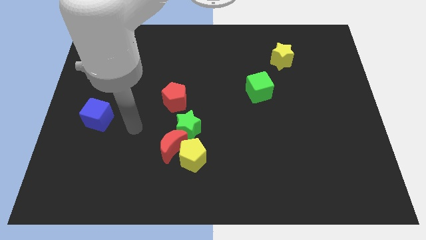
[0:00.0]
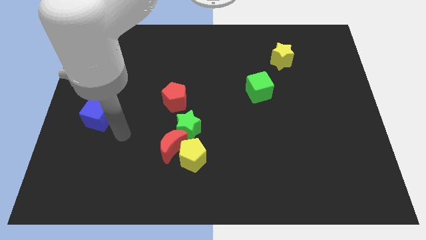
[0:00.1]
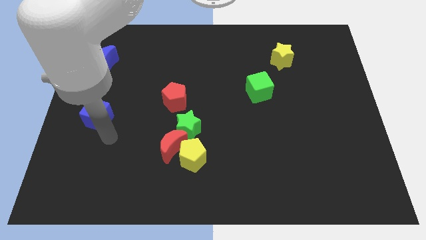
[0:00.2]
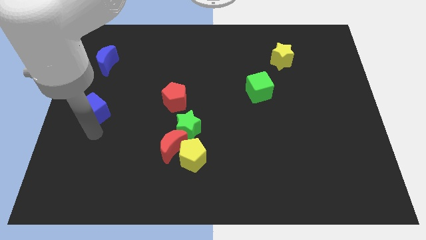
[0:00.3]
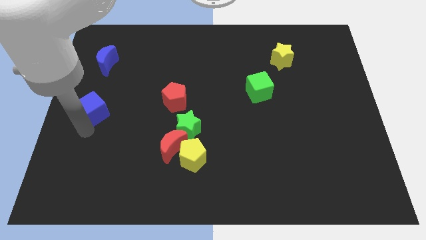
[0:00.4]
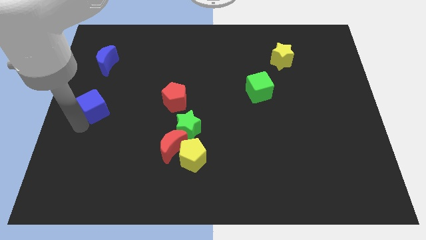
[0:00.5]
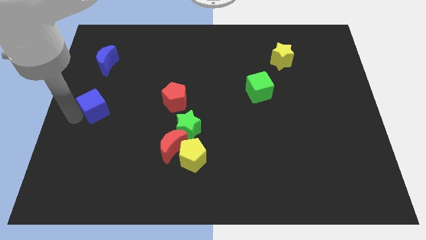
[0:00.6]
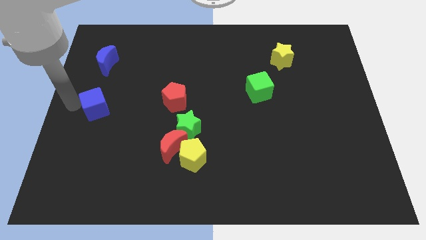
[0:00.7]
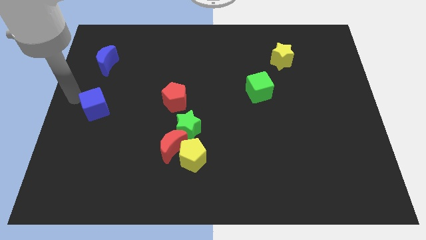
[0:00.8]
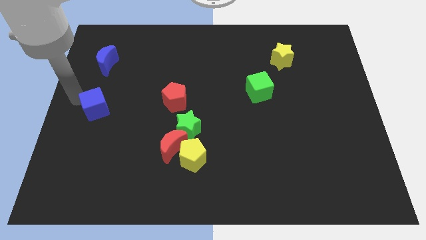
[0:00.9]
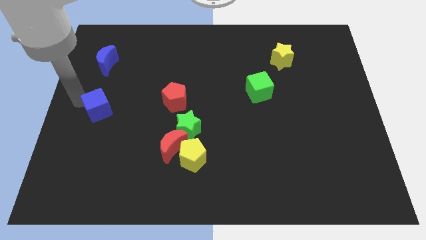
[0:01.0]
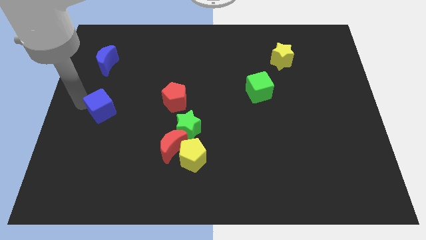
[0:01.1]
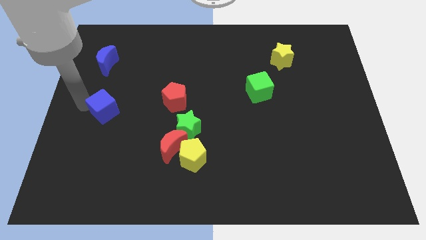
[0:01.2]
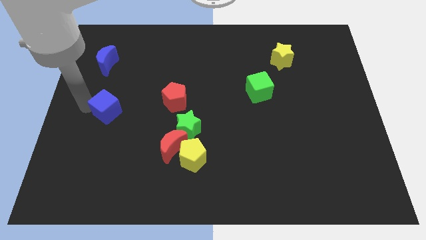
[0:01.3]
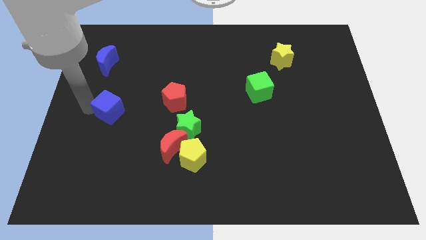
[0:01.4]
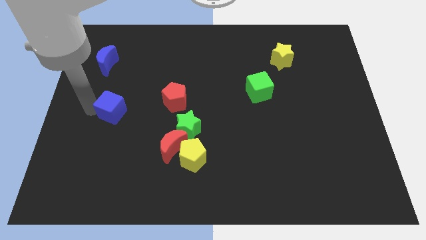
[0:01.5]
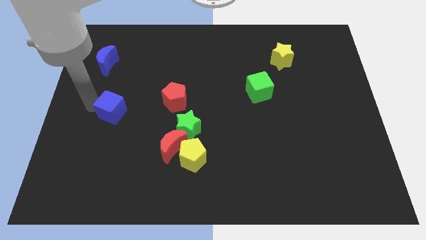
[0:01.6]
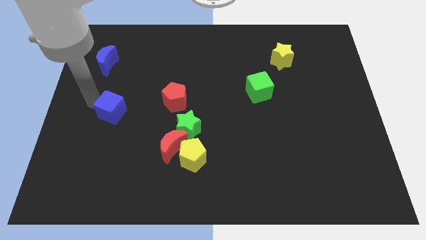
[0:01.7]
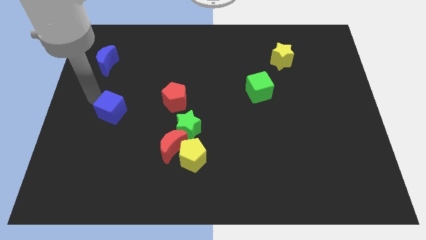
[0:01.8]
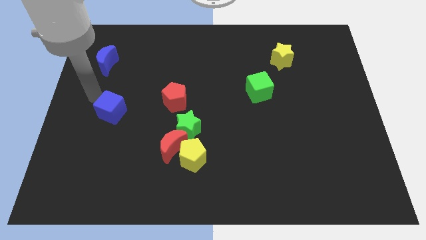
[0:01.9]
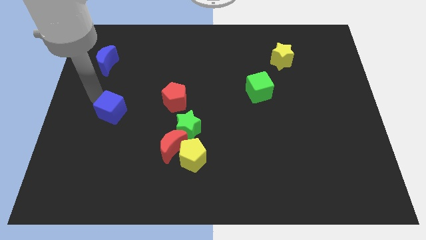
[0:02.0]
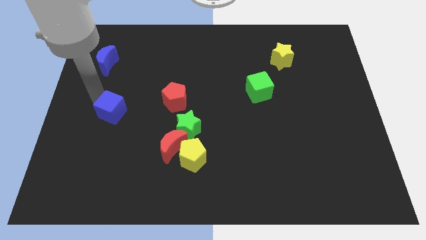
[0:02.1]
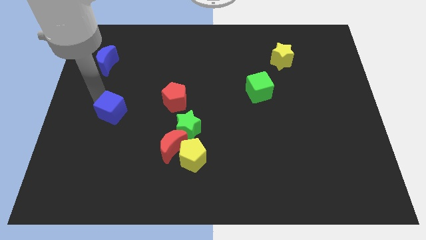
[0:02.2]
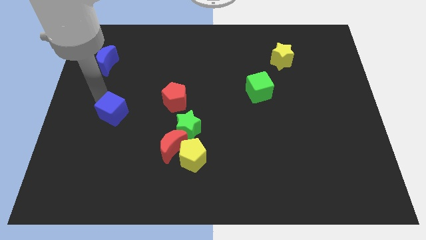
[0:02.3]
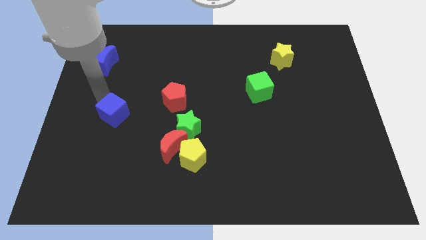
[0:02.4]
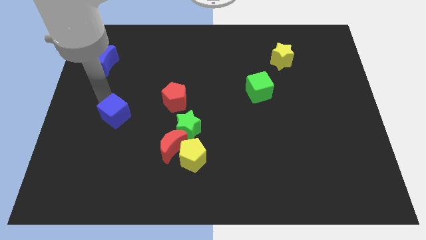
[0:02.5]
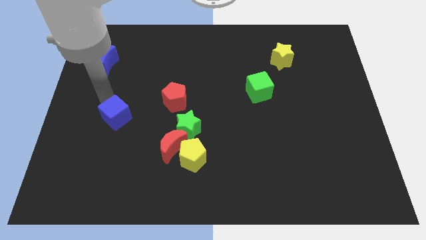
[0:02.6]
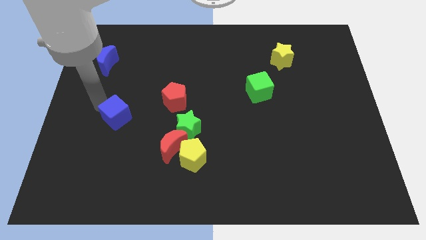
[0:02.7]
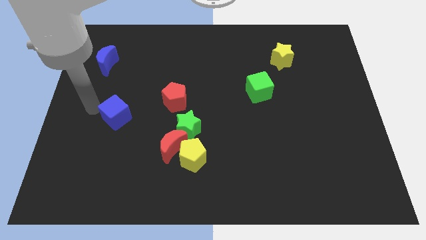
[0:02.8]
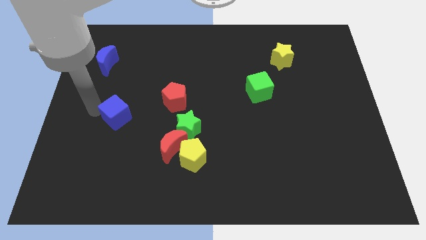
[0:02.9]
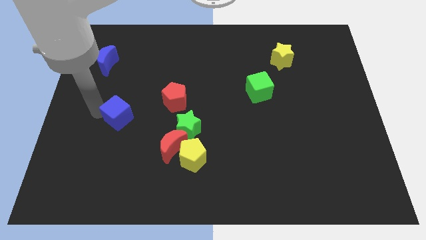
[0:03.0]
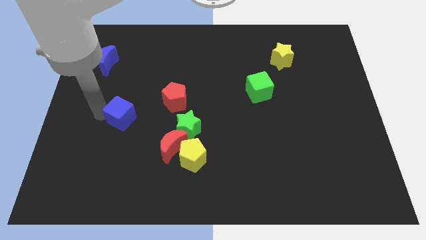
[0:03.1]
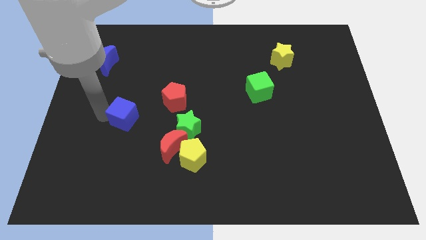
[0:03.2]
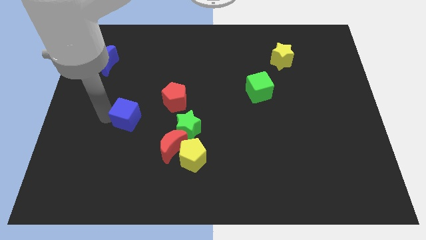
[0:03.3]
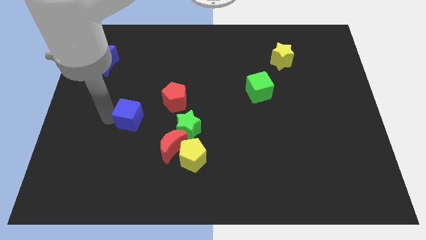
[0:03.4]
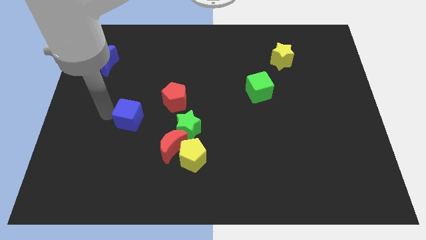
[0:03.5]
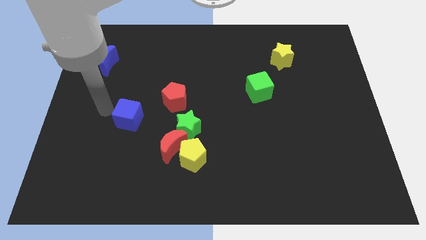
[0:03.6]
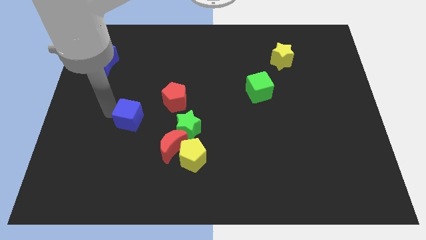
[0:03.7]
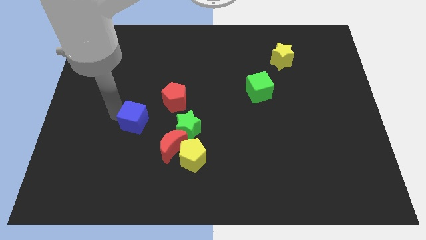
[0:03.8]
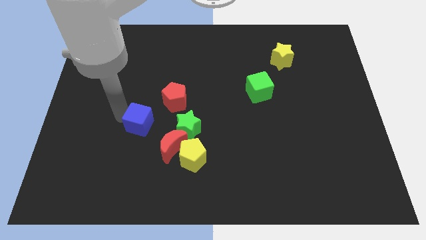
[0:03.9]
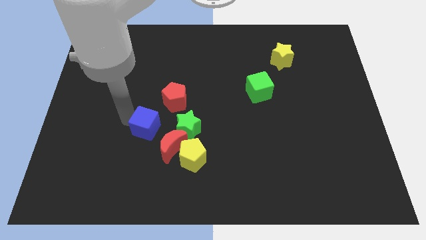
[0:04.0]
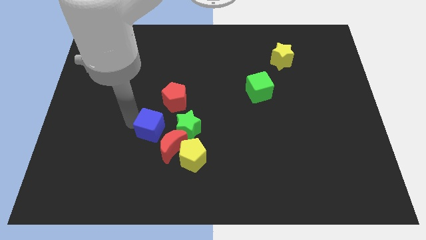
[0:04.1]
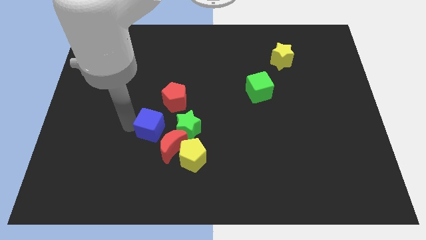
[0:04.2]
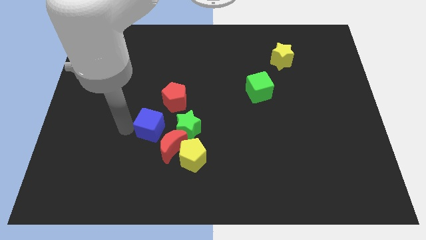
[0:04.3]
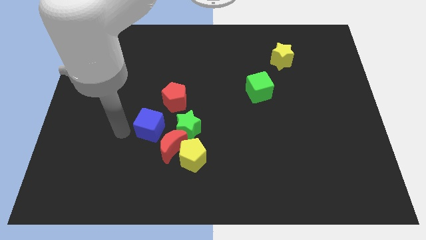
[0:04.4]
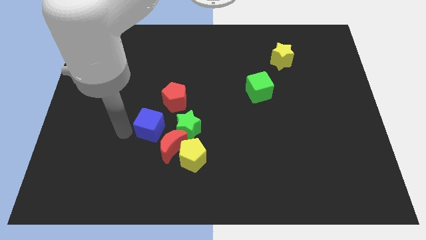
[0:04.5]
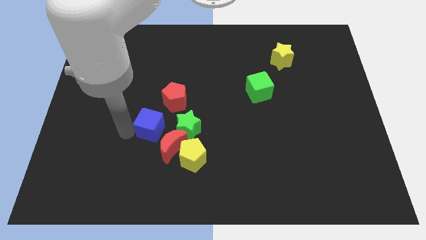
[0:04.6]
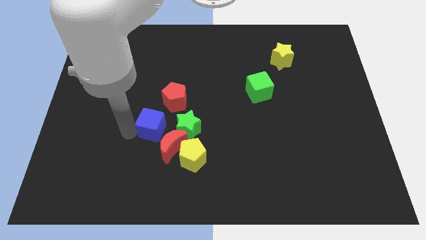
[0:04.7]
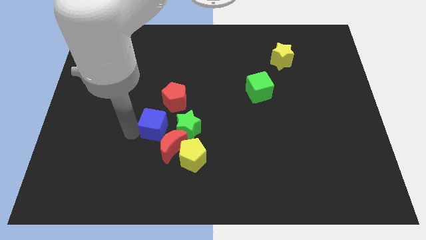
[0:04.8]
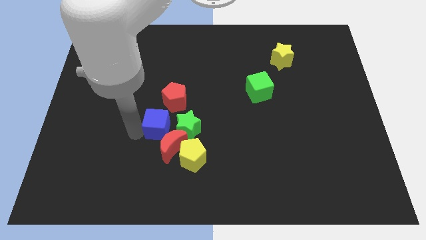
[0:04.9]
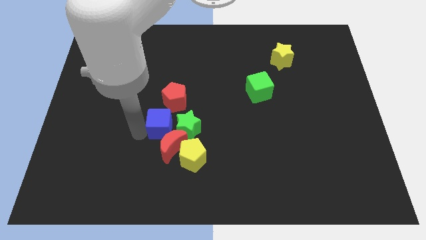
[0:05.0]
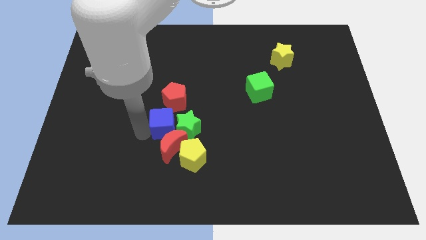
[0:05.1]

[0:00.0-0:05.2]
push the blue cube to the green star

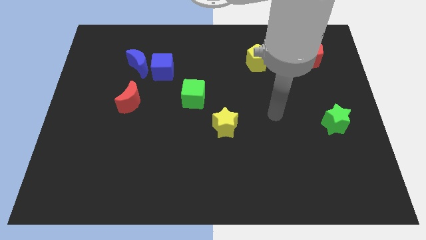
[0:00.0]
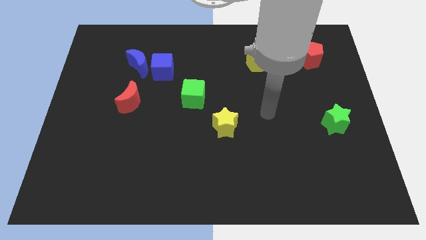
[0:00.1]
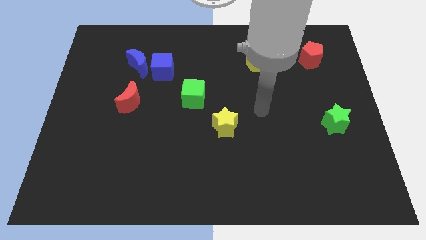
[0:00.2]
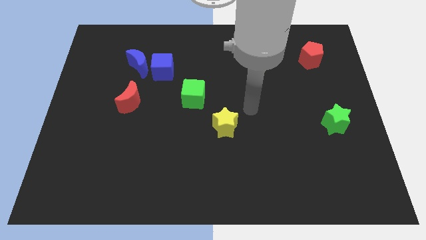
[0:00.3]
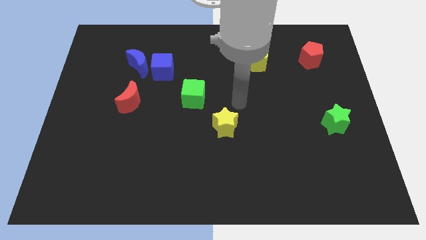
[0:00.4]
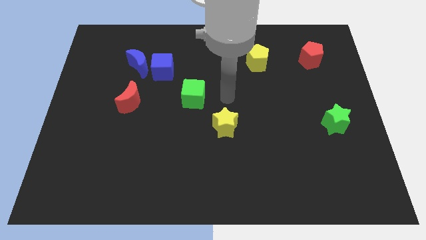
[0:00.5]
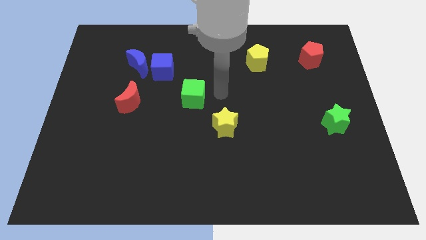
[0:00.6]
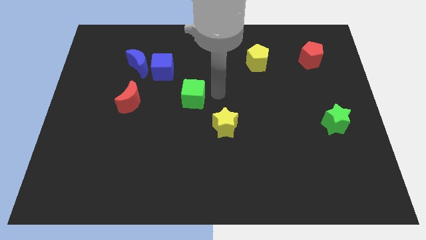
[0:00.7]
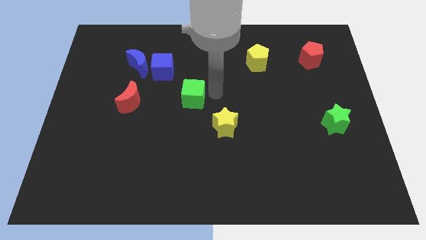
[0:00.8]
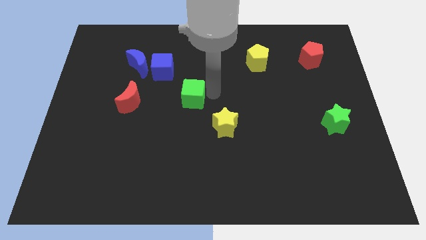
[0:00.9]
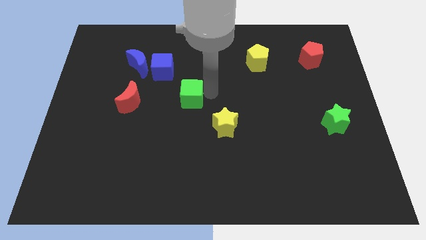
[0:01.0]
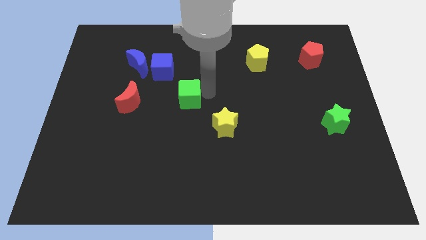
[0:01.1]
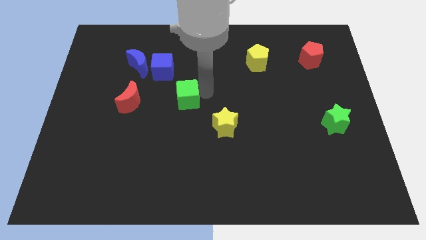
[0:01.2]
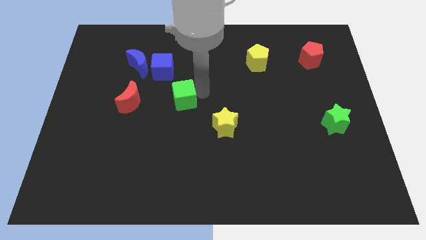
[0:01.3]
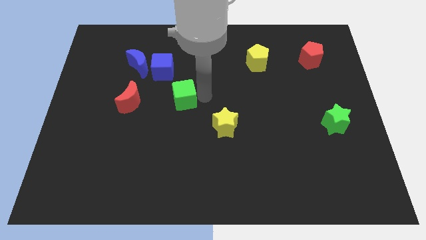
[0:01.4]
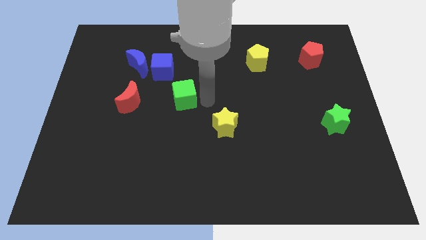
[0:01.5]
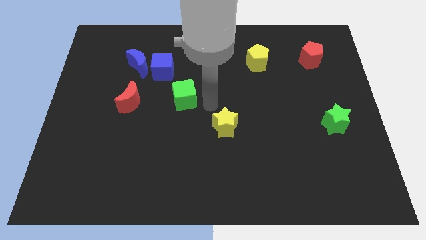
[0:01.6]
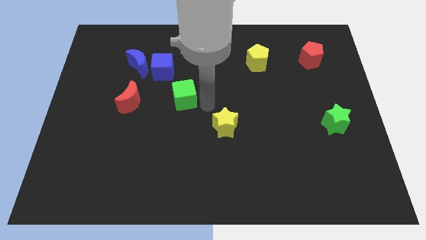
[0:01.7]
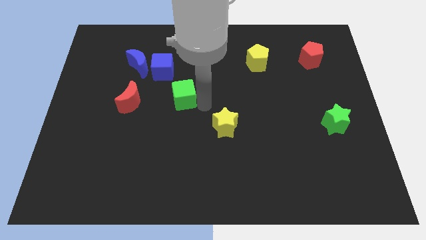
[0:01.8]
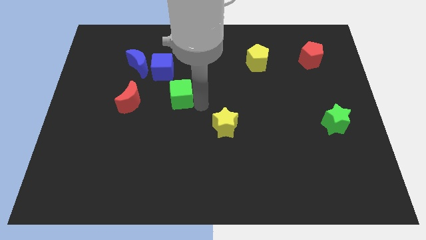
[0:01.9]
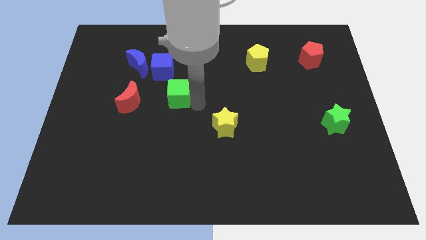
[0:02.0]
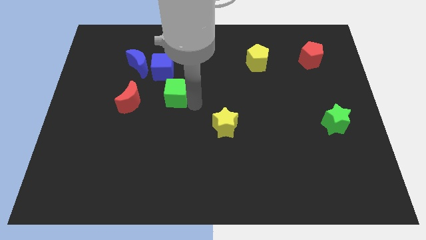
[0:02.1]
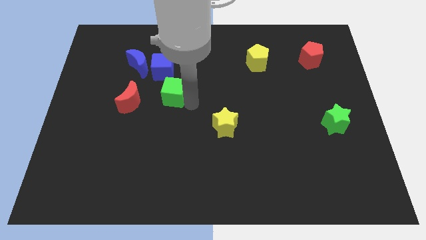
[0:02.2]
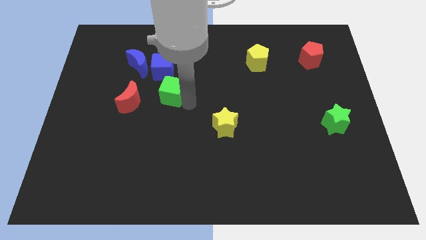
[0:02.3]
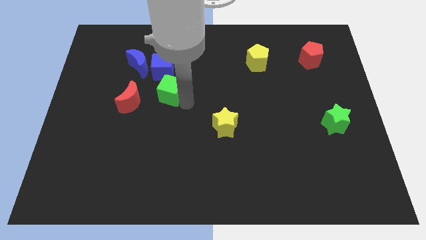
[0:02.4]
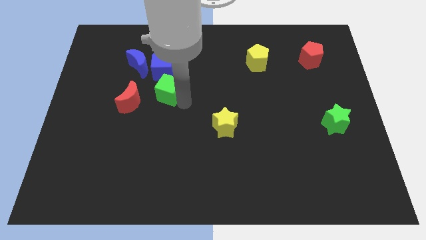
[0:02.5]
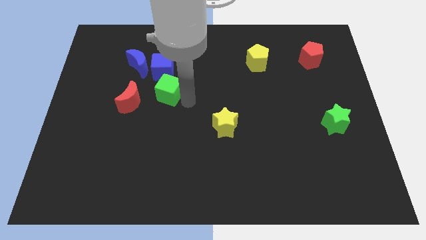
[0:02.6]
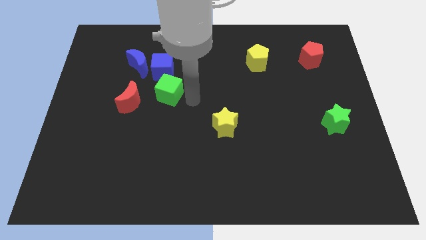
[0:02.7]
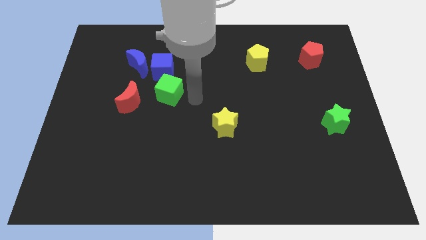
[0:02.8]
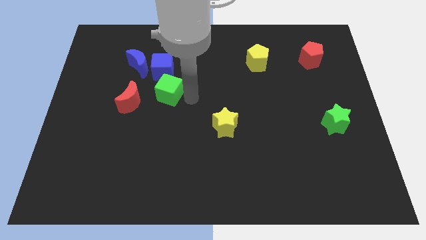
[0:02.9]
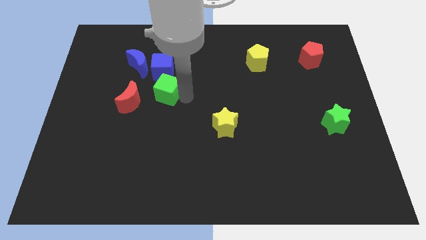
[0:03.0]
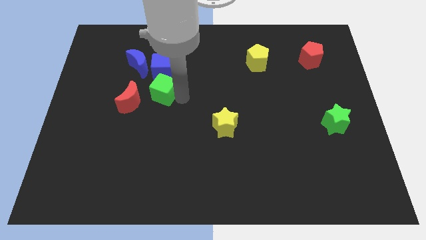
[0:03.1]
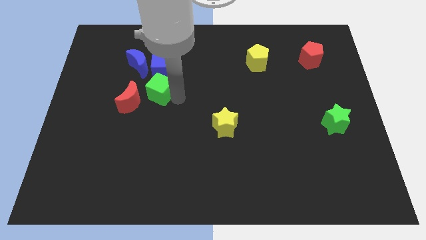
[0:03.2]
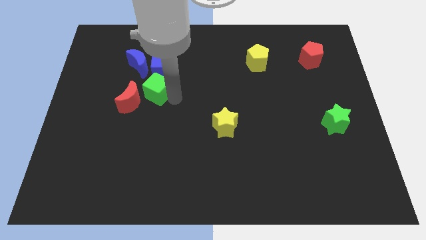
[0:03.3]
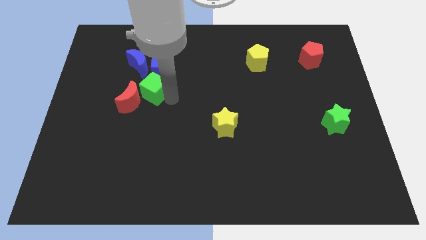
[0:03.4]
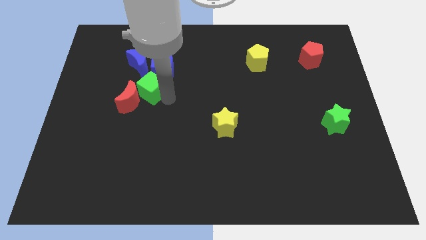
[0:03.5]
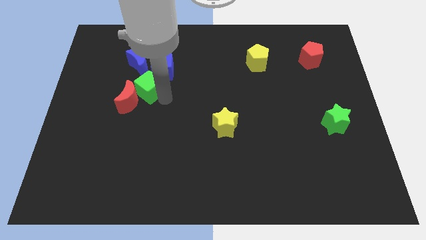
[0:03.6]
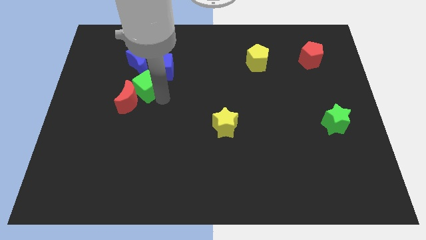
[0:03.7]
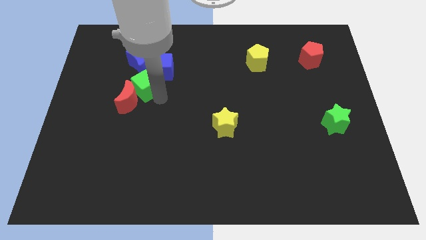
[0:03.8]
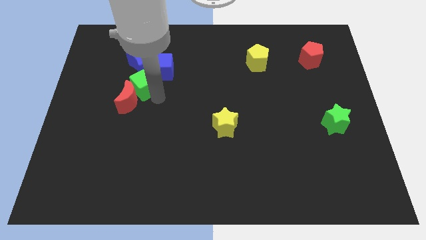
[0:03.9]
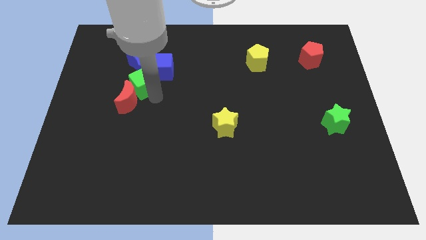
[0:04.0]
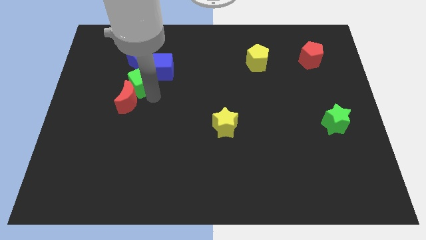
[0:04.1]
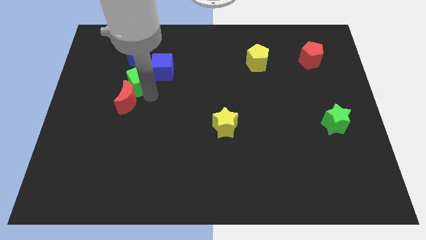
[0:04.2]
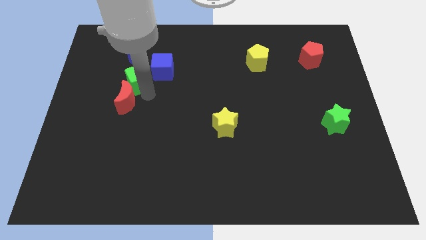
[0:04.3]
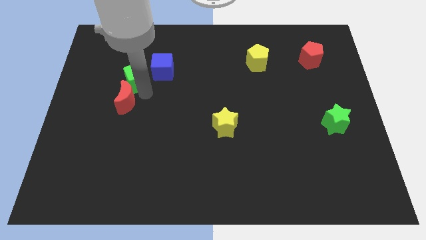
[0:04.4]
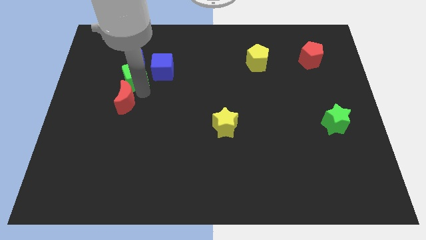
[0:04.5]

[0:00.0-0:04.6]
push the green cube towards the blue moon
